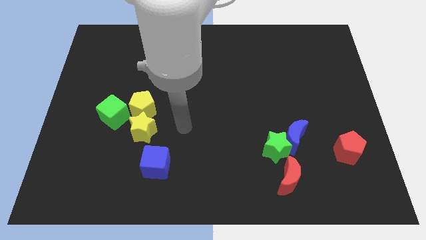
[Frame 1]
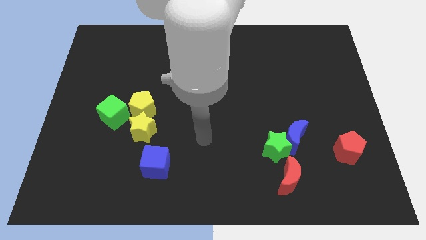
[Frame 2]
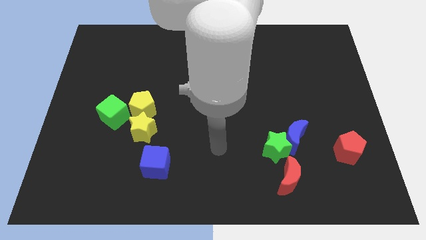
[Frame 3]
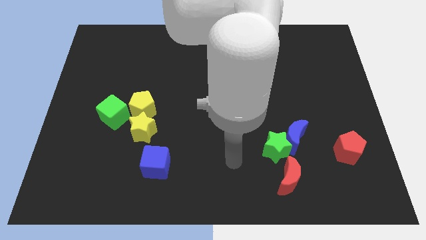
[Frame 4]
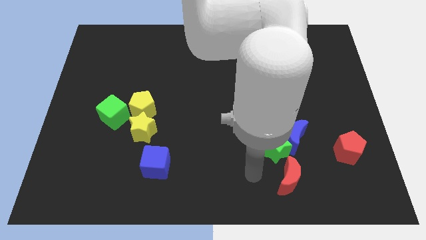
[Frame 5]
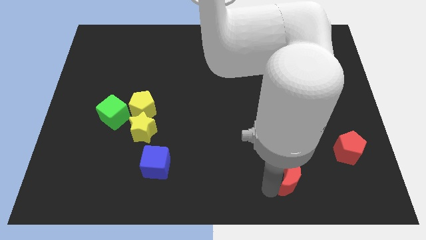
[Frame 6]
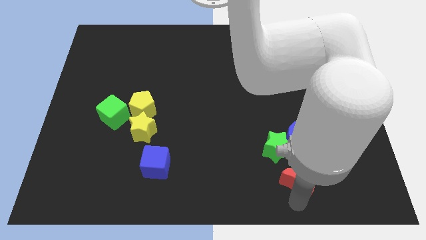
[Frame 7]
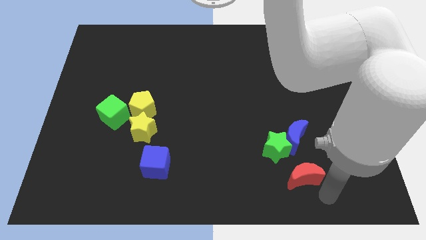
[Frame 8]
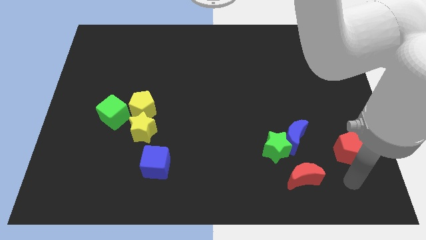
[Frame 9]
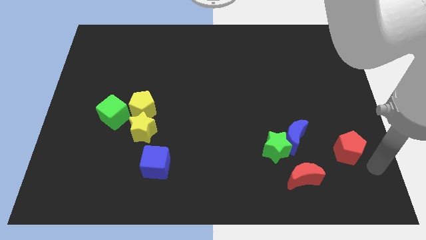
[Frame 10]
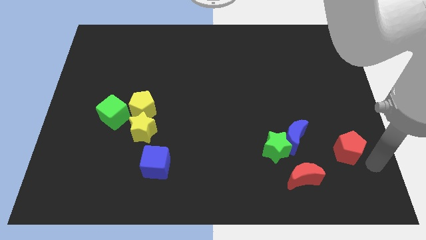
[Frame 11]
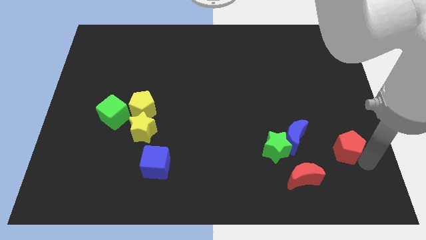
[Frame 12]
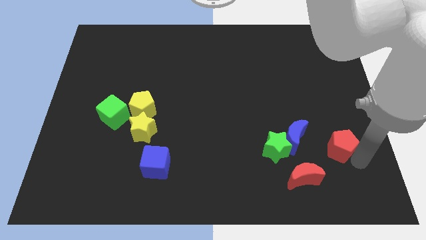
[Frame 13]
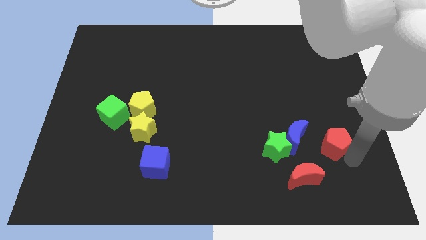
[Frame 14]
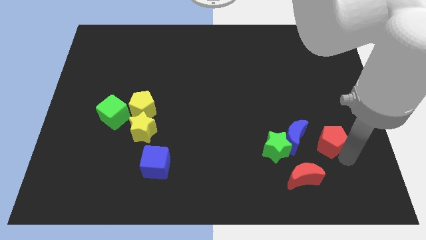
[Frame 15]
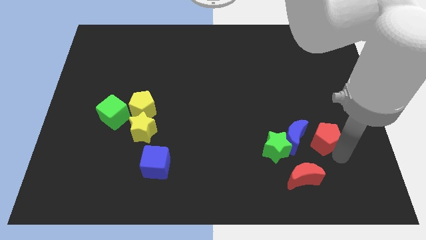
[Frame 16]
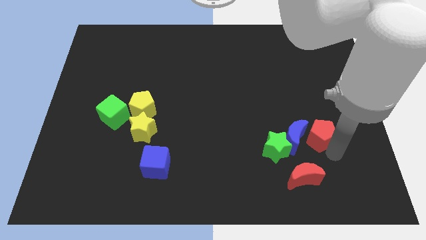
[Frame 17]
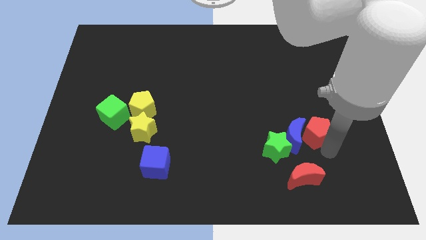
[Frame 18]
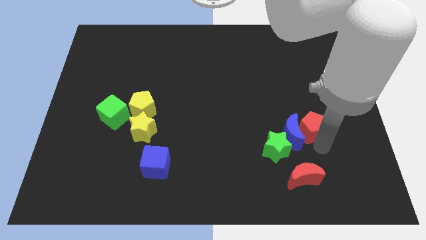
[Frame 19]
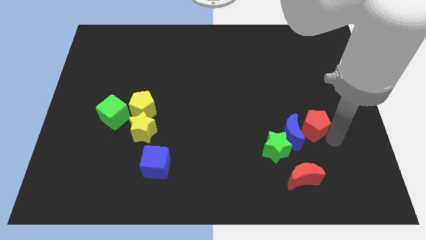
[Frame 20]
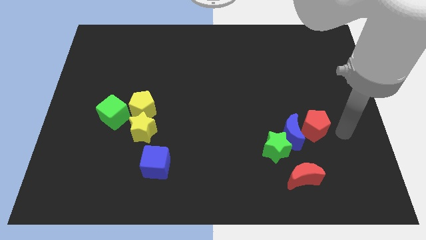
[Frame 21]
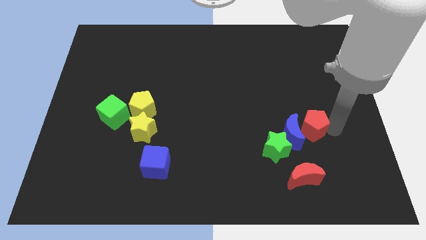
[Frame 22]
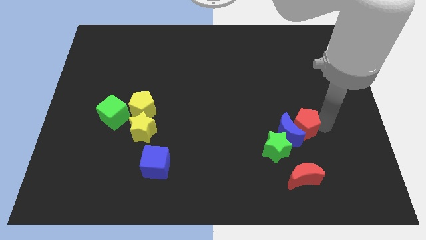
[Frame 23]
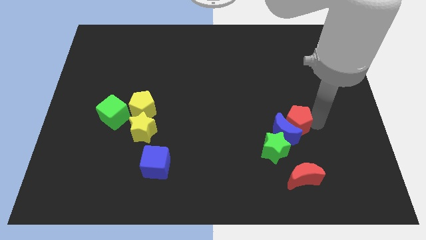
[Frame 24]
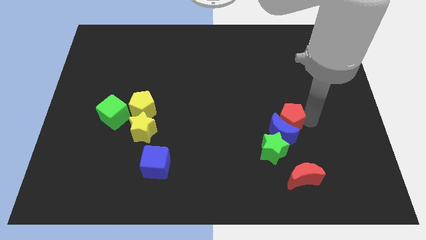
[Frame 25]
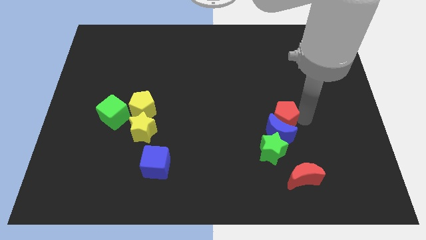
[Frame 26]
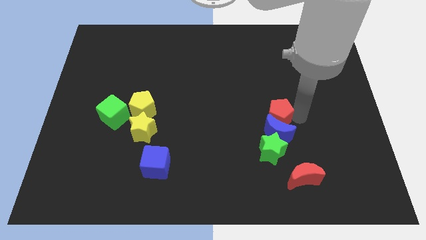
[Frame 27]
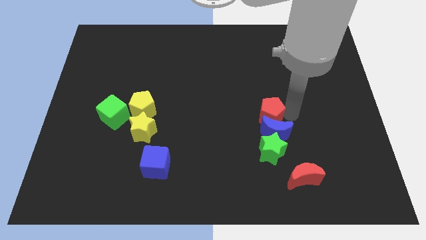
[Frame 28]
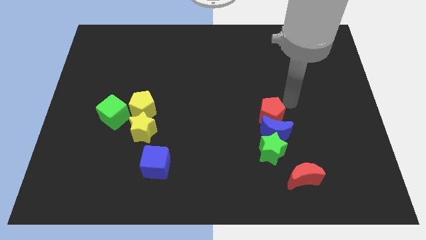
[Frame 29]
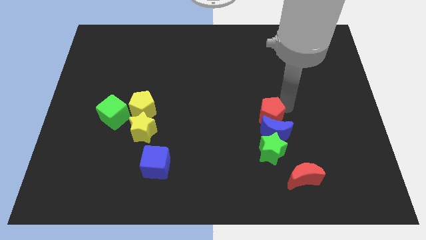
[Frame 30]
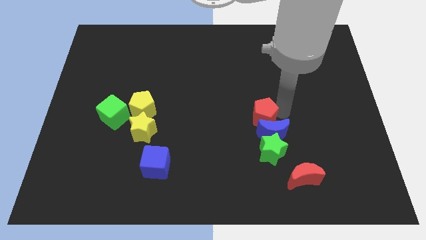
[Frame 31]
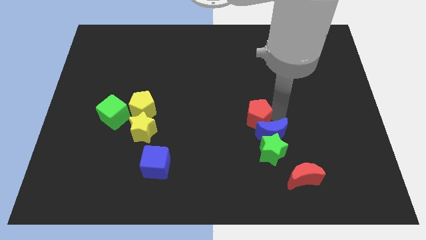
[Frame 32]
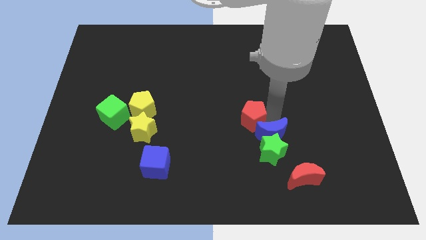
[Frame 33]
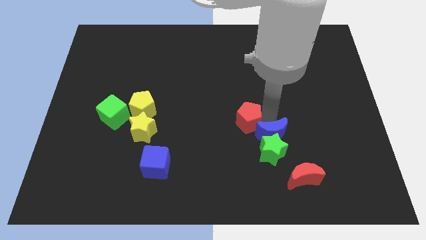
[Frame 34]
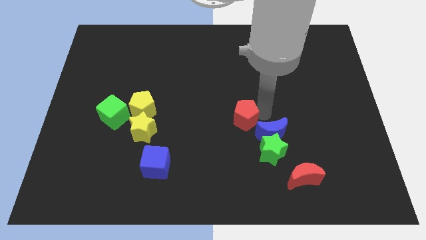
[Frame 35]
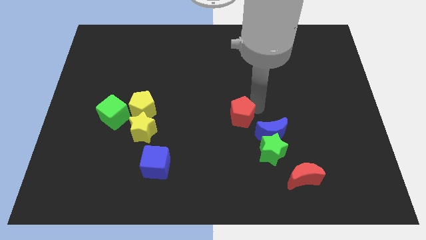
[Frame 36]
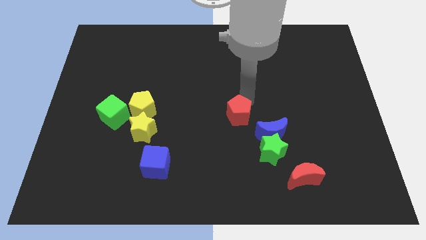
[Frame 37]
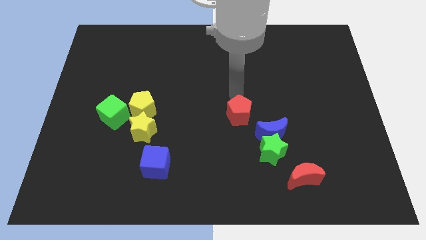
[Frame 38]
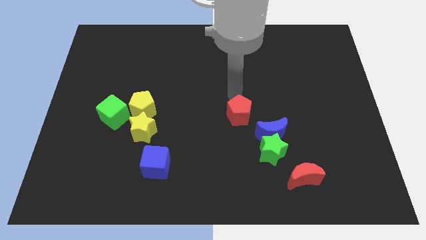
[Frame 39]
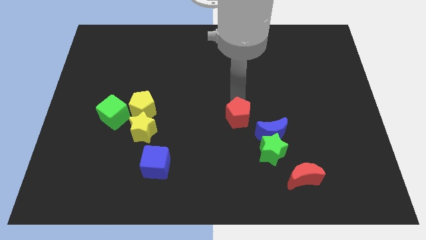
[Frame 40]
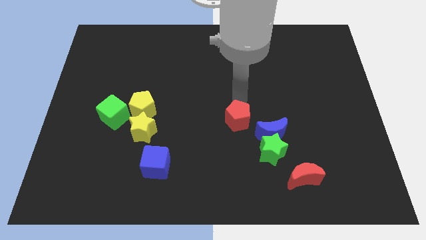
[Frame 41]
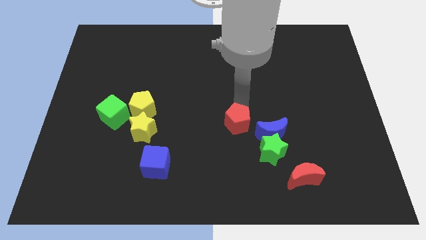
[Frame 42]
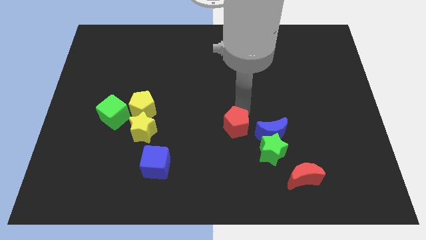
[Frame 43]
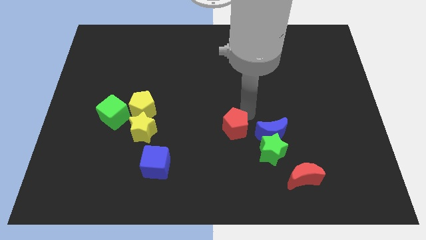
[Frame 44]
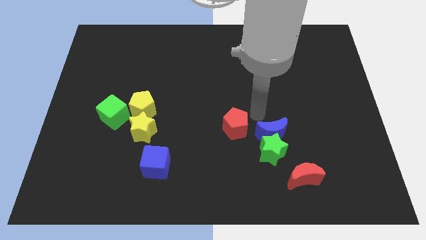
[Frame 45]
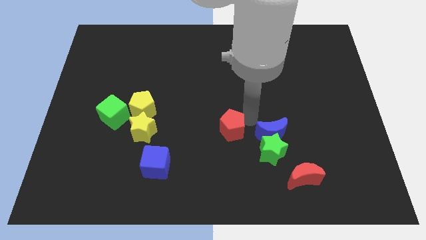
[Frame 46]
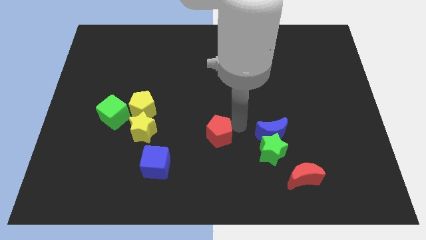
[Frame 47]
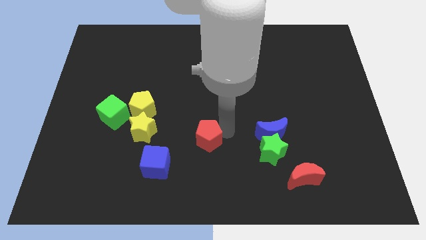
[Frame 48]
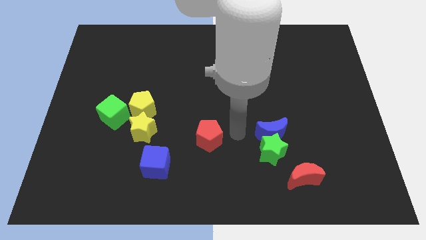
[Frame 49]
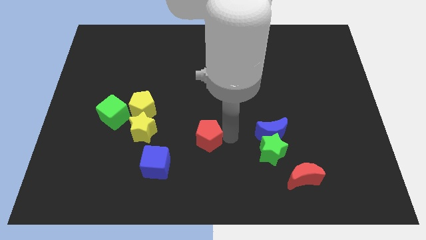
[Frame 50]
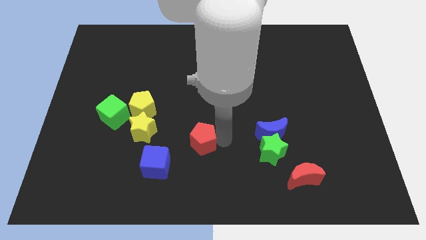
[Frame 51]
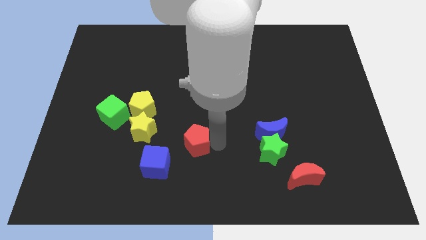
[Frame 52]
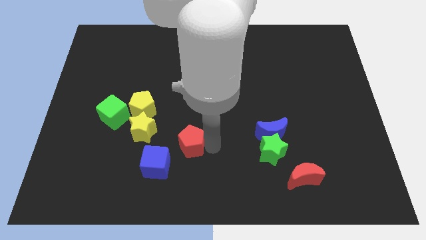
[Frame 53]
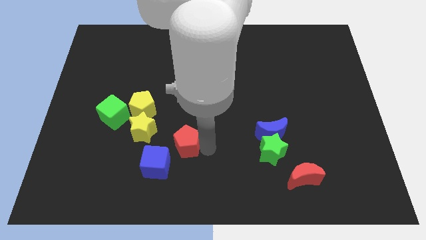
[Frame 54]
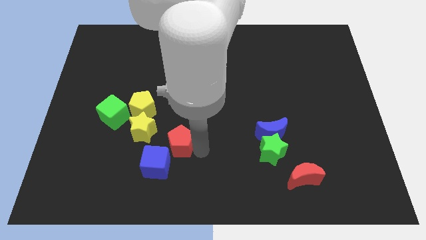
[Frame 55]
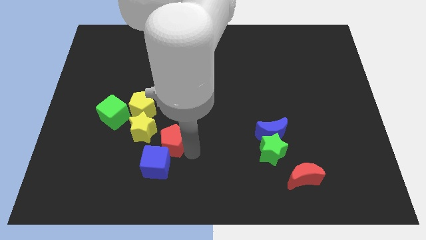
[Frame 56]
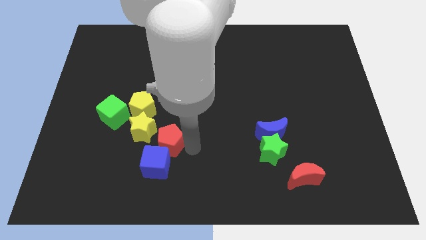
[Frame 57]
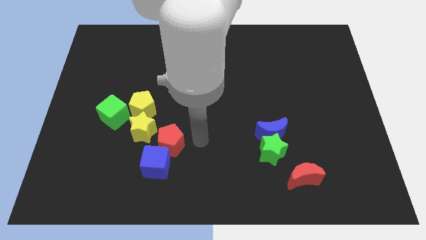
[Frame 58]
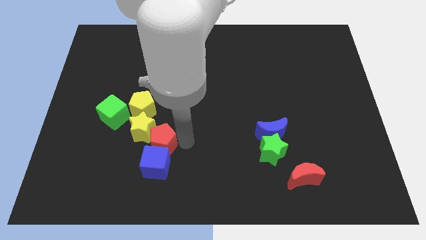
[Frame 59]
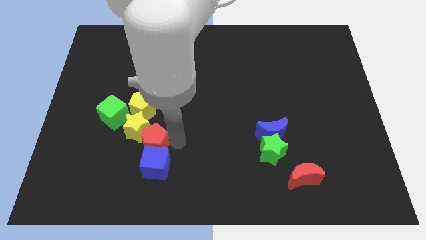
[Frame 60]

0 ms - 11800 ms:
slide the red pentagon to the bottom of the yellow pentagon

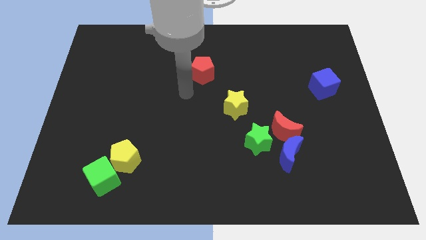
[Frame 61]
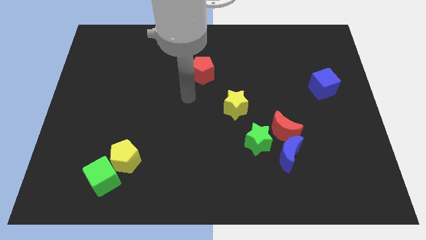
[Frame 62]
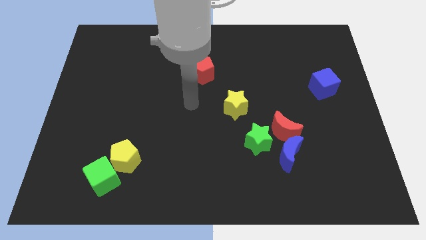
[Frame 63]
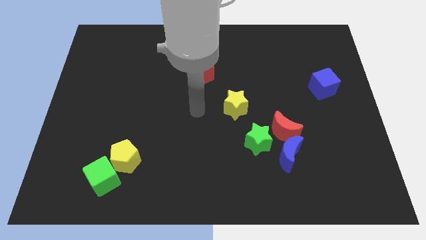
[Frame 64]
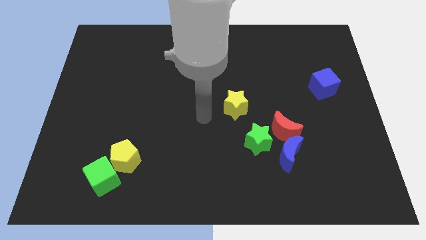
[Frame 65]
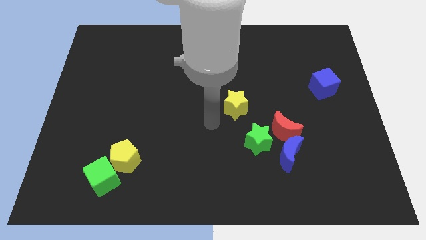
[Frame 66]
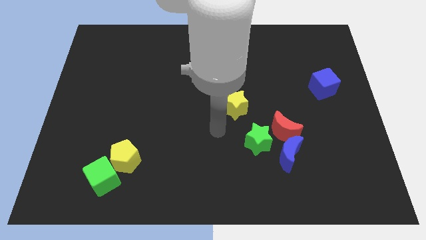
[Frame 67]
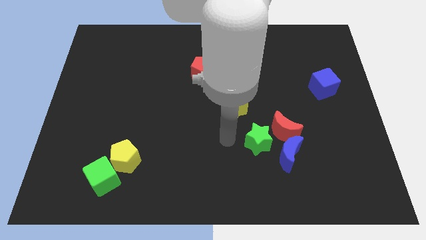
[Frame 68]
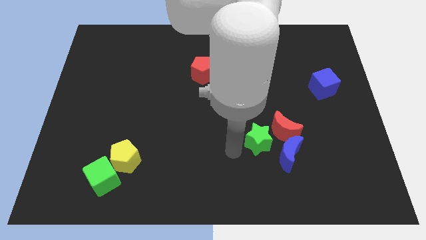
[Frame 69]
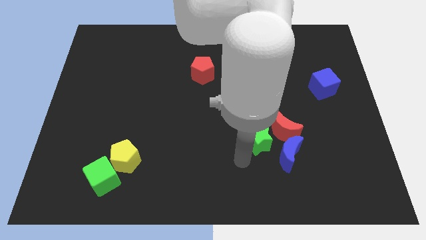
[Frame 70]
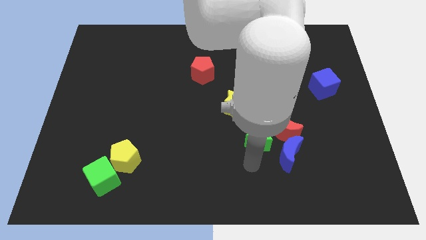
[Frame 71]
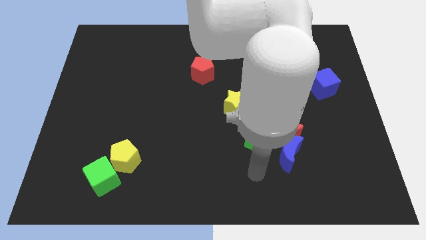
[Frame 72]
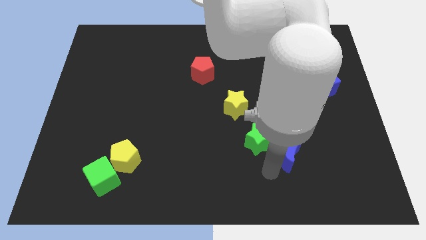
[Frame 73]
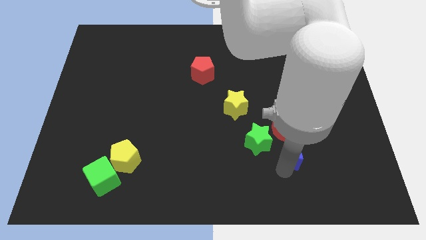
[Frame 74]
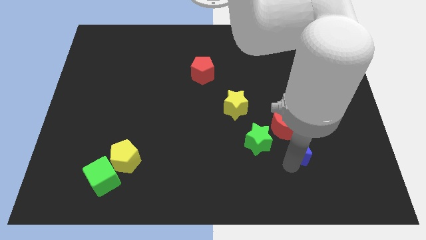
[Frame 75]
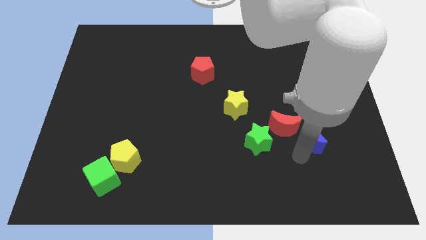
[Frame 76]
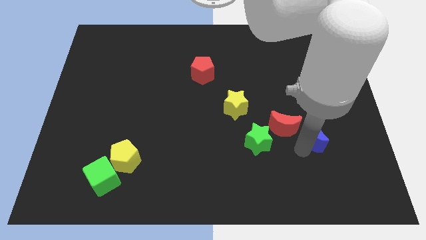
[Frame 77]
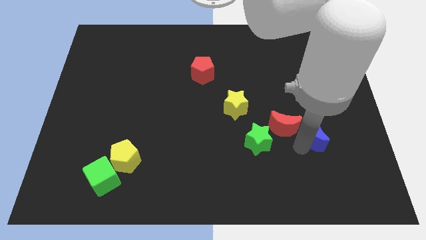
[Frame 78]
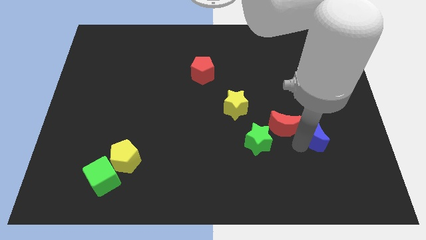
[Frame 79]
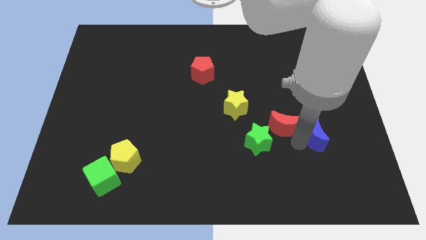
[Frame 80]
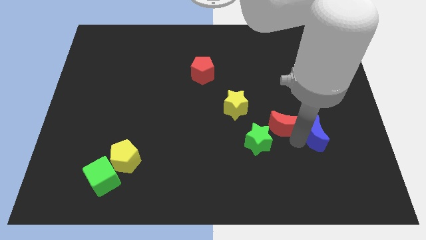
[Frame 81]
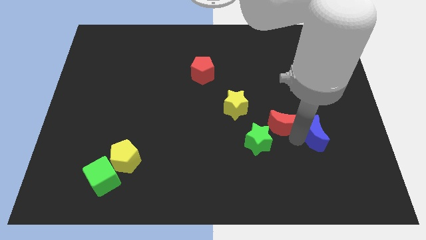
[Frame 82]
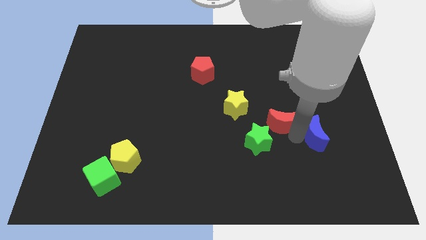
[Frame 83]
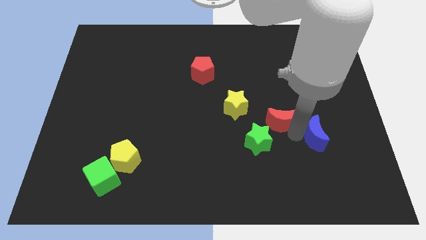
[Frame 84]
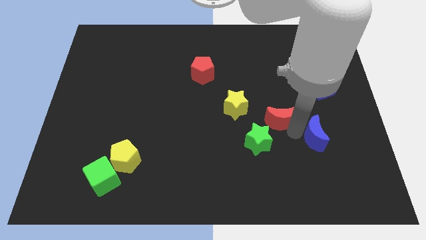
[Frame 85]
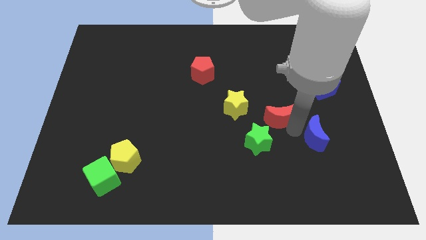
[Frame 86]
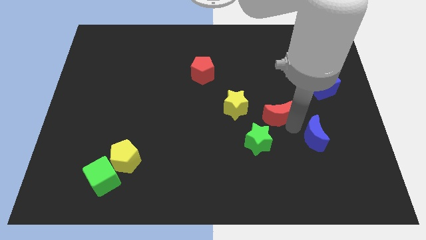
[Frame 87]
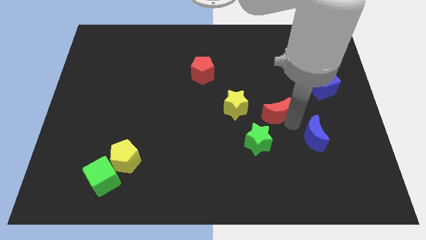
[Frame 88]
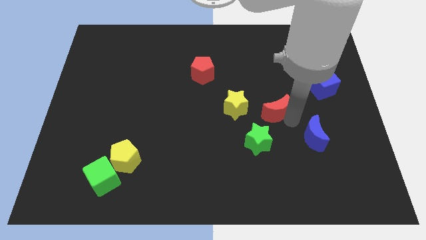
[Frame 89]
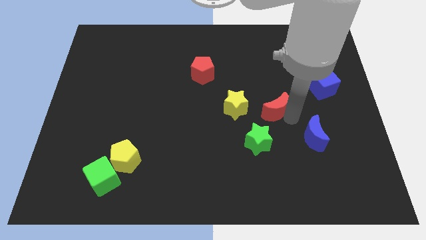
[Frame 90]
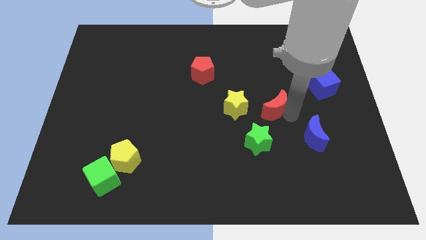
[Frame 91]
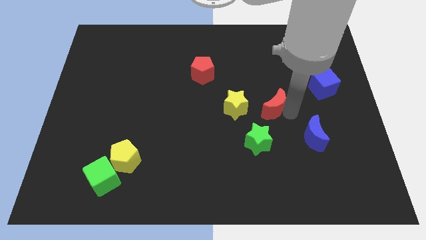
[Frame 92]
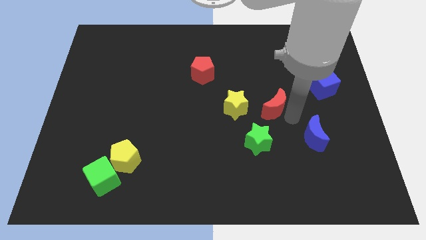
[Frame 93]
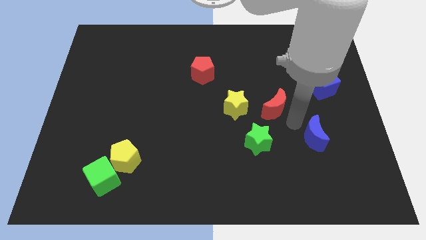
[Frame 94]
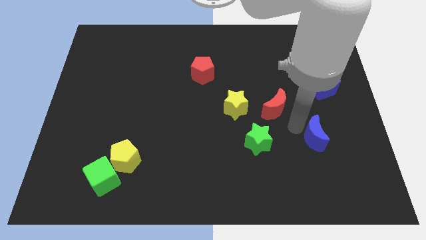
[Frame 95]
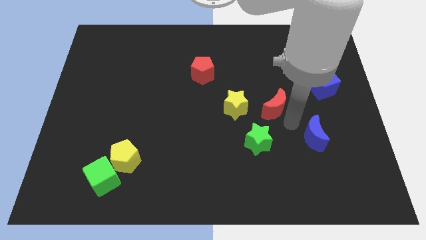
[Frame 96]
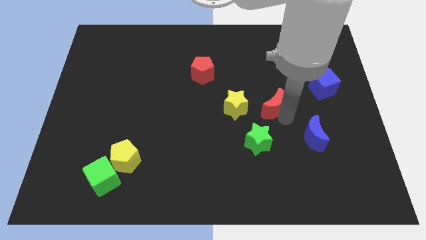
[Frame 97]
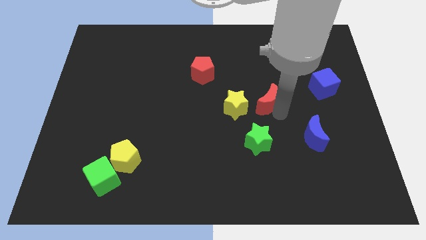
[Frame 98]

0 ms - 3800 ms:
move the red moon to the top right side of the yellow star
